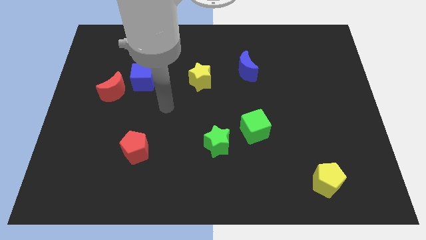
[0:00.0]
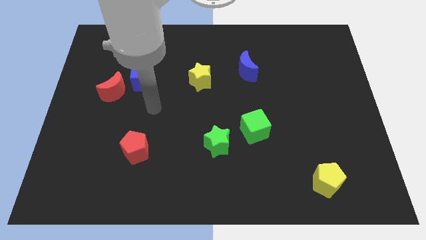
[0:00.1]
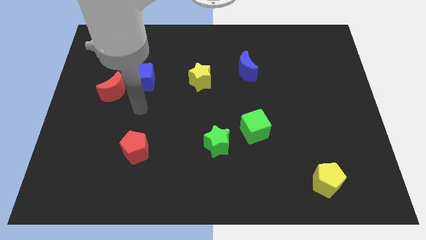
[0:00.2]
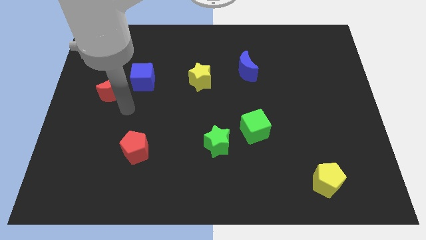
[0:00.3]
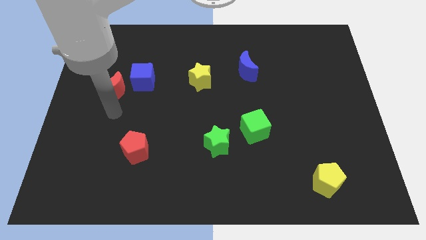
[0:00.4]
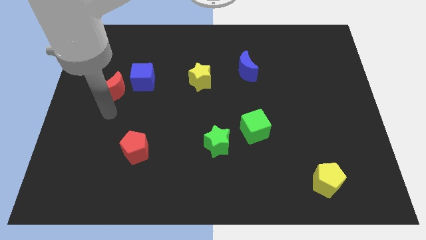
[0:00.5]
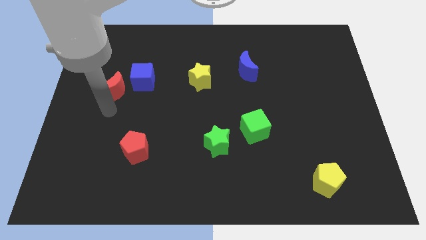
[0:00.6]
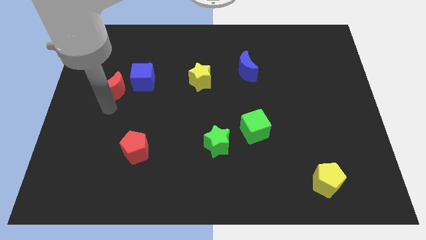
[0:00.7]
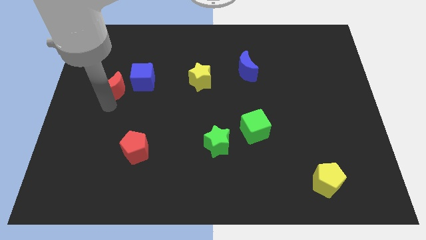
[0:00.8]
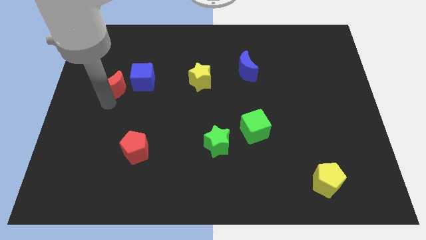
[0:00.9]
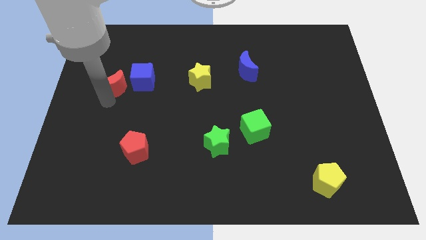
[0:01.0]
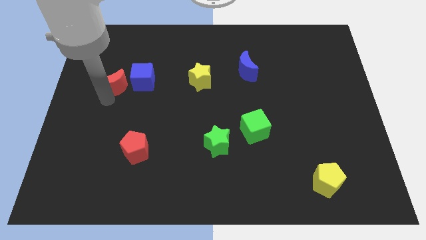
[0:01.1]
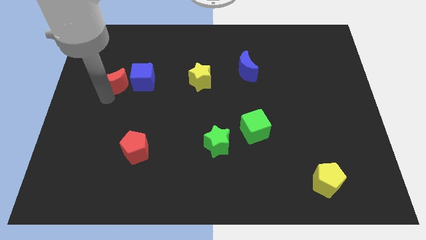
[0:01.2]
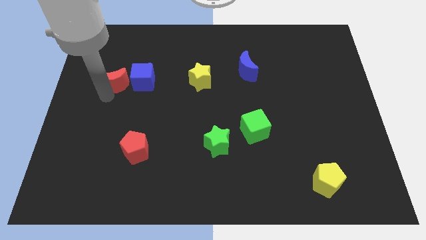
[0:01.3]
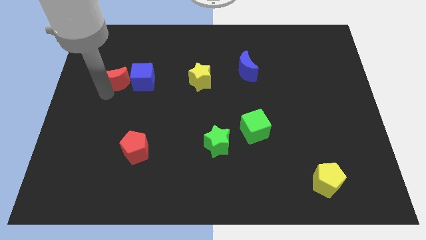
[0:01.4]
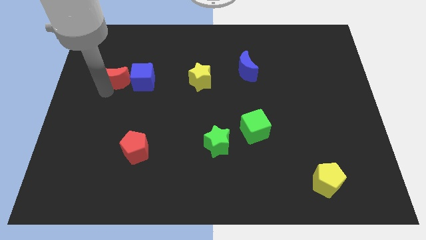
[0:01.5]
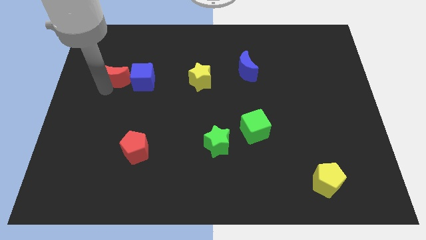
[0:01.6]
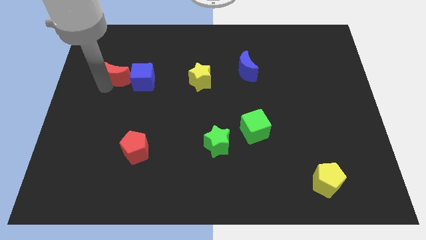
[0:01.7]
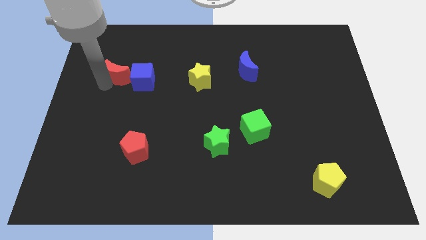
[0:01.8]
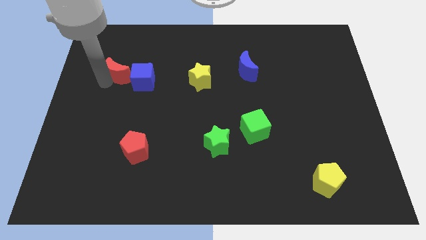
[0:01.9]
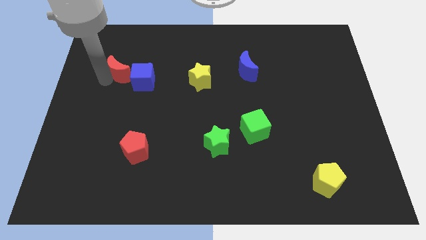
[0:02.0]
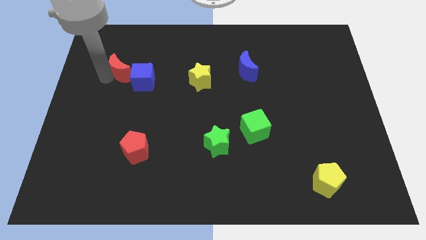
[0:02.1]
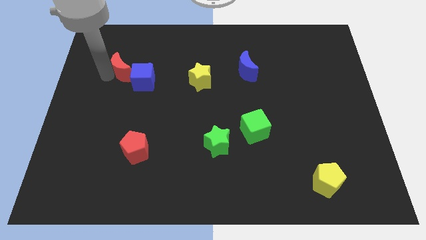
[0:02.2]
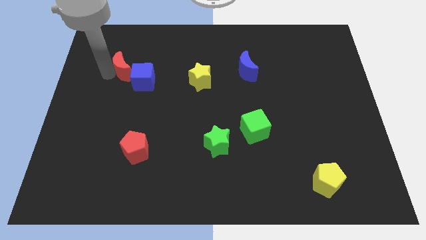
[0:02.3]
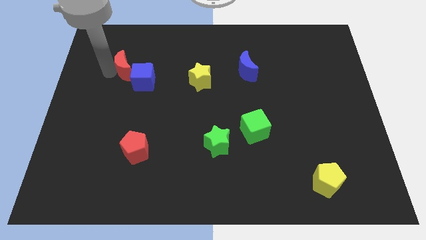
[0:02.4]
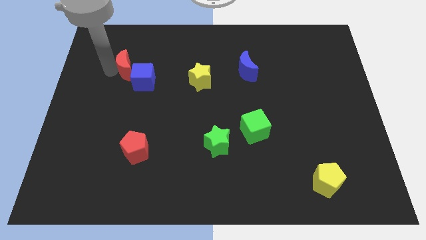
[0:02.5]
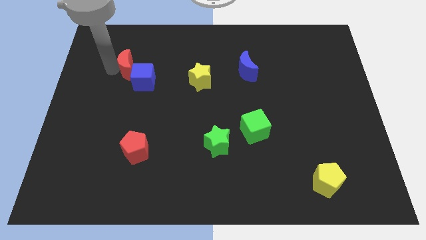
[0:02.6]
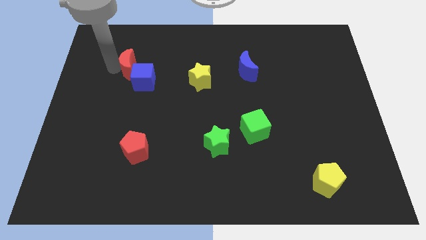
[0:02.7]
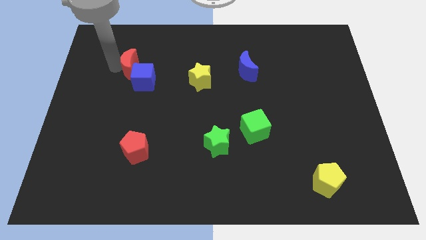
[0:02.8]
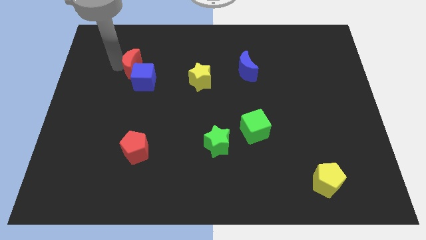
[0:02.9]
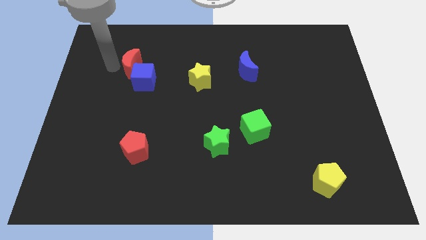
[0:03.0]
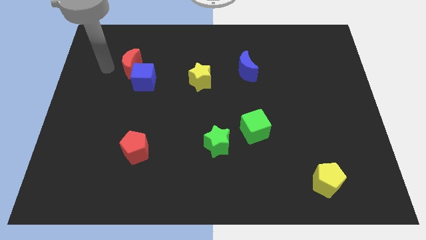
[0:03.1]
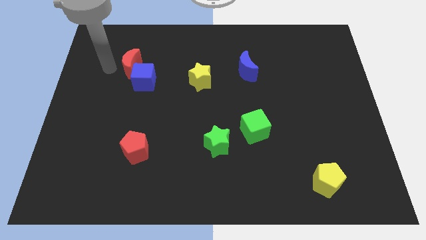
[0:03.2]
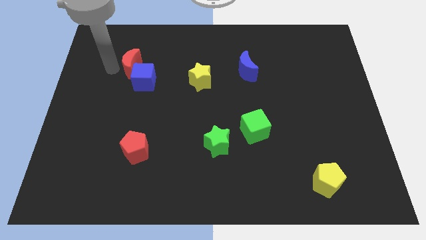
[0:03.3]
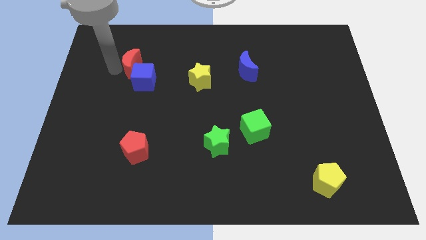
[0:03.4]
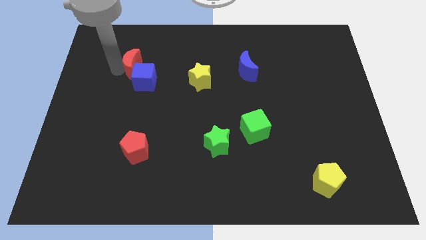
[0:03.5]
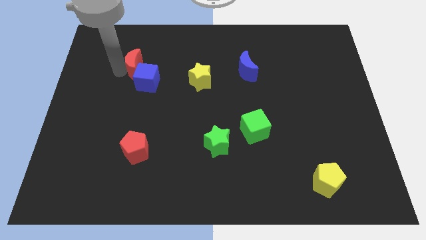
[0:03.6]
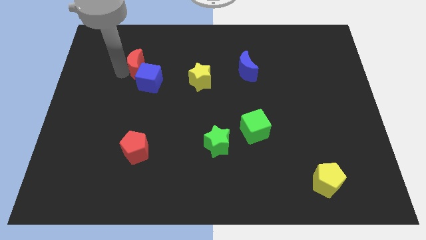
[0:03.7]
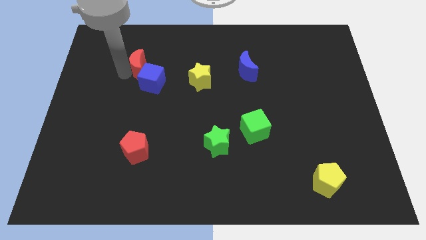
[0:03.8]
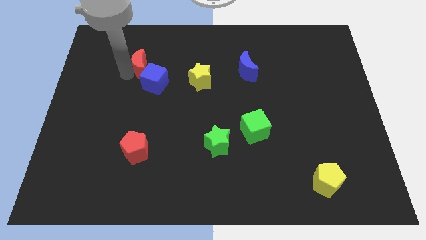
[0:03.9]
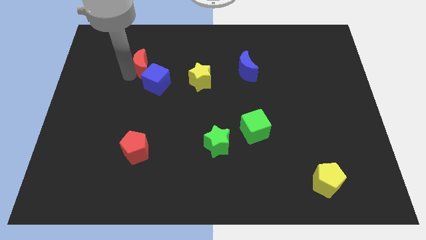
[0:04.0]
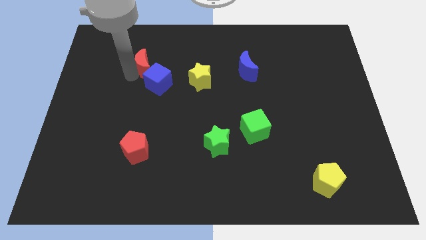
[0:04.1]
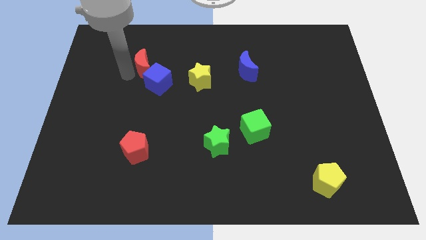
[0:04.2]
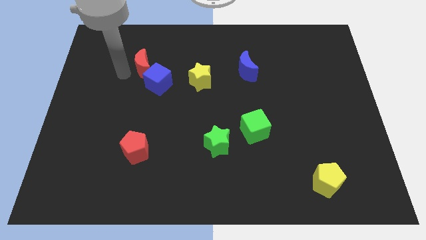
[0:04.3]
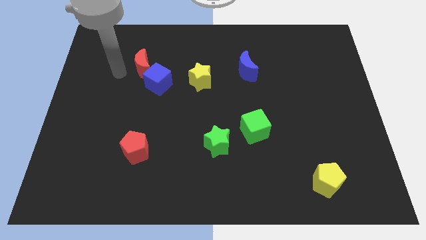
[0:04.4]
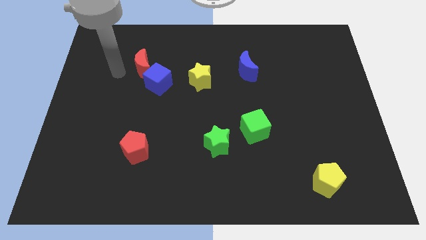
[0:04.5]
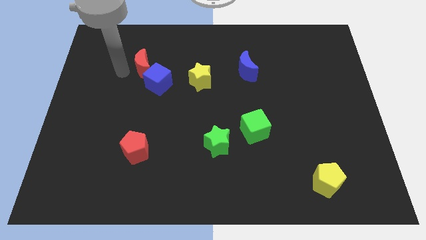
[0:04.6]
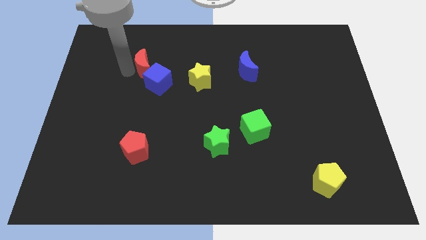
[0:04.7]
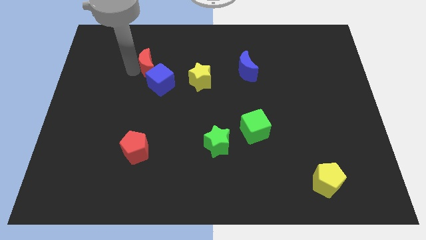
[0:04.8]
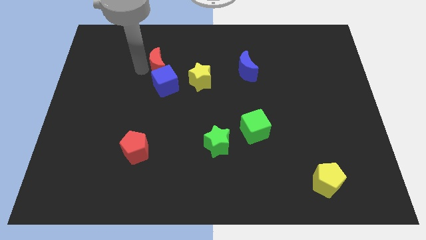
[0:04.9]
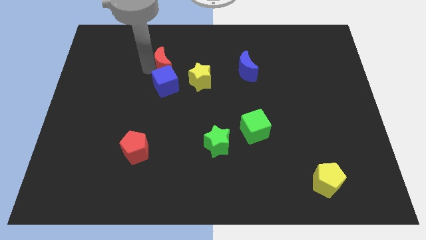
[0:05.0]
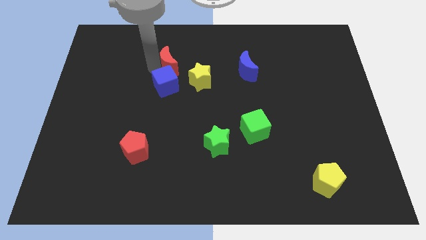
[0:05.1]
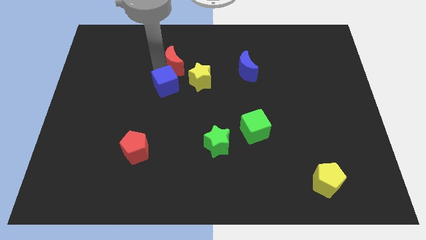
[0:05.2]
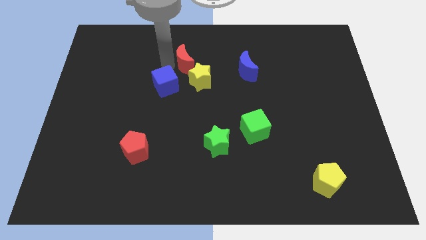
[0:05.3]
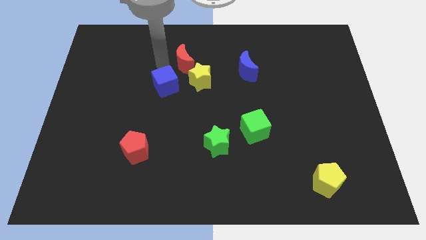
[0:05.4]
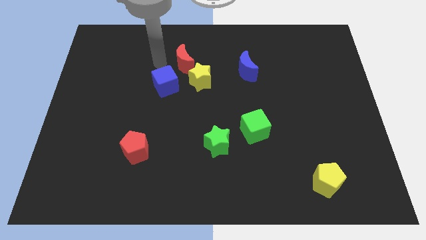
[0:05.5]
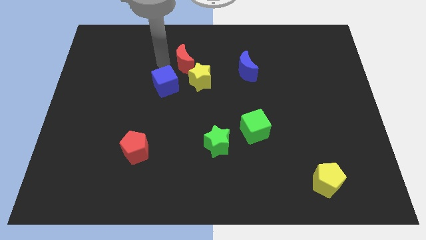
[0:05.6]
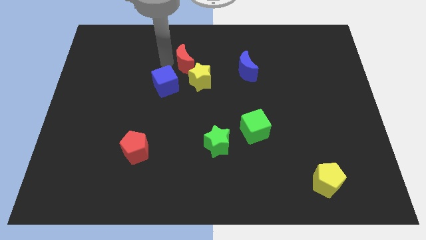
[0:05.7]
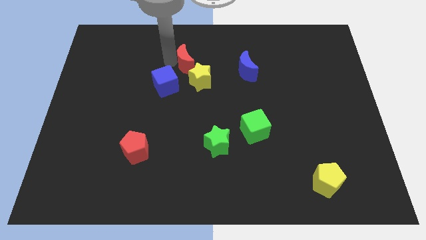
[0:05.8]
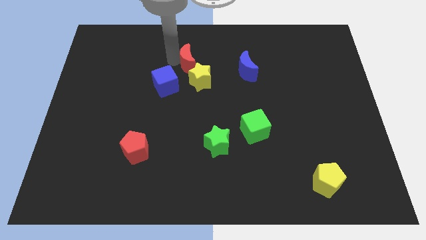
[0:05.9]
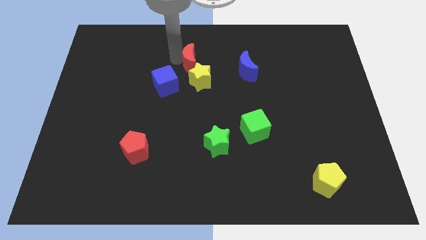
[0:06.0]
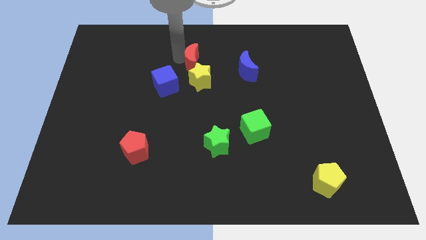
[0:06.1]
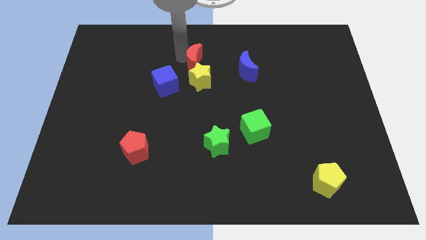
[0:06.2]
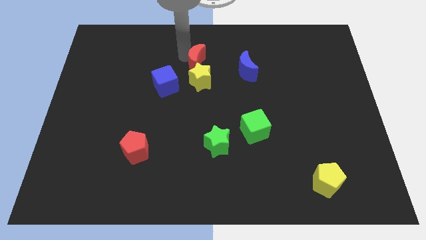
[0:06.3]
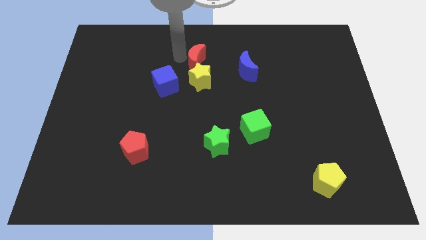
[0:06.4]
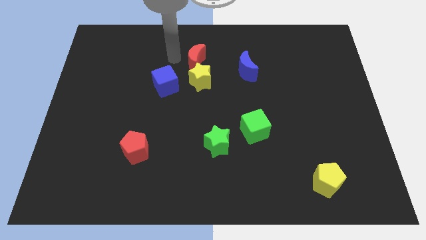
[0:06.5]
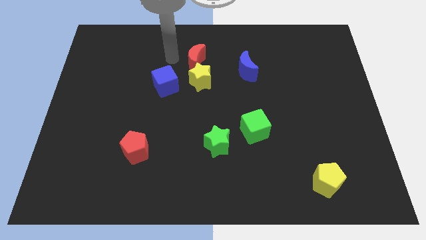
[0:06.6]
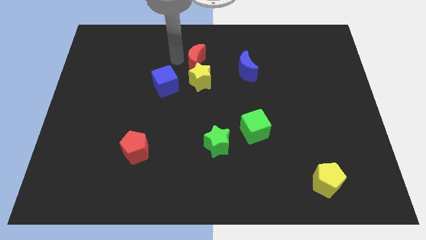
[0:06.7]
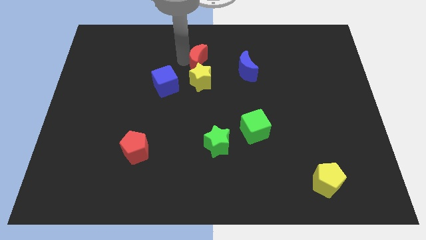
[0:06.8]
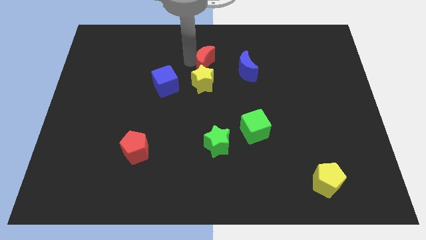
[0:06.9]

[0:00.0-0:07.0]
put the red moon to the top right of the yellow star
